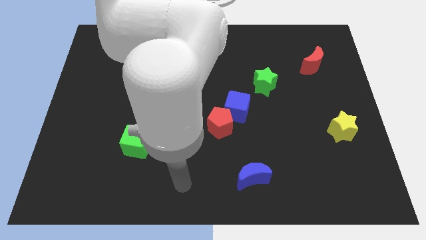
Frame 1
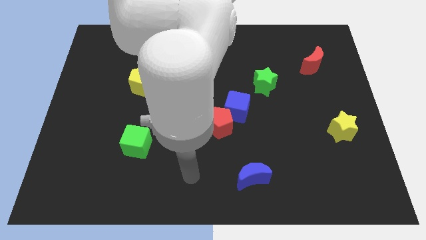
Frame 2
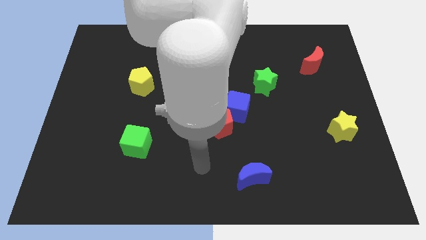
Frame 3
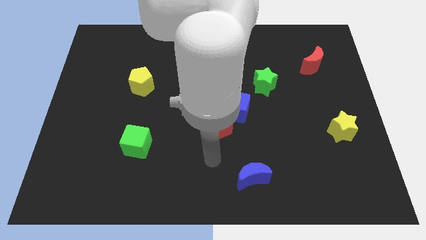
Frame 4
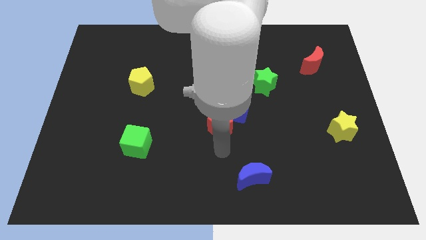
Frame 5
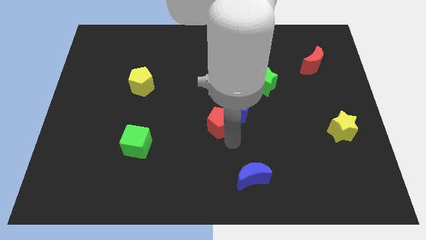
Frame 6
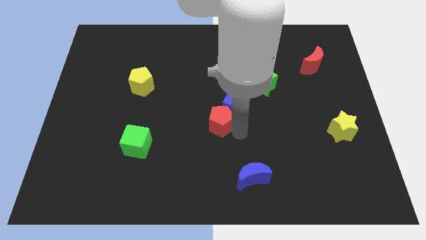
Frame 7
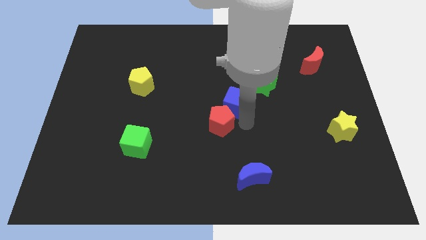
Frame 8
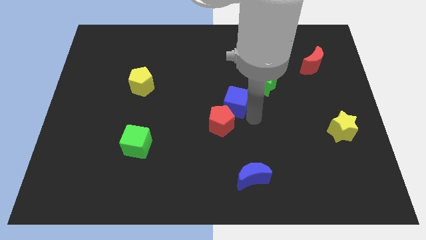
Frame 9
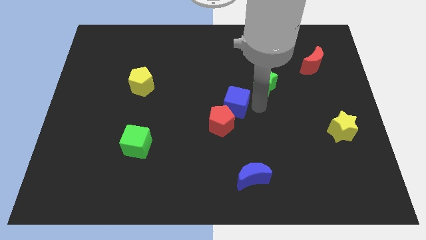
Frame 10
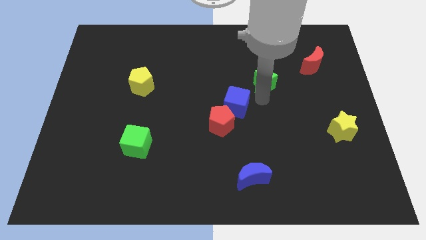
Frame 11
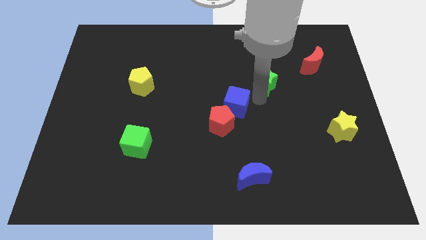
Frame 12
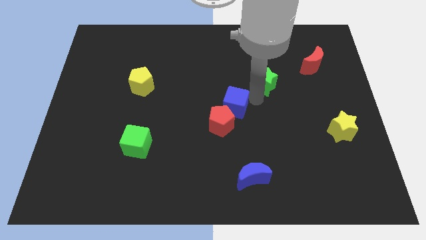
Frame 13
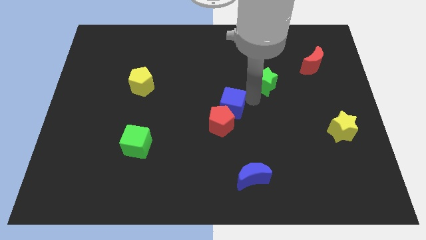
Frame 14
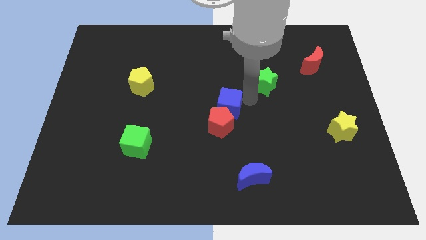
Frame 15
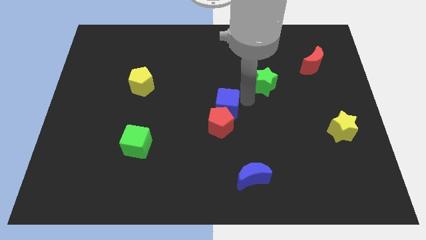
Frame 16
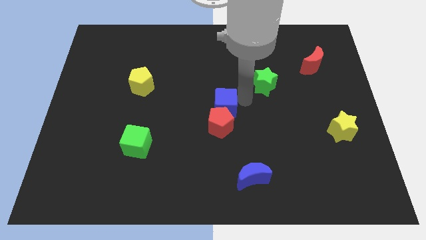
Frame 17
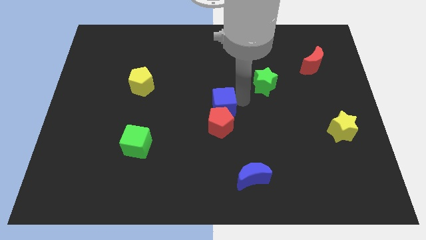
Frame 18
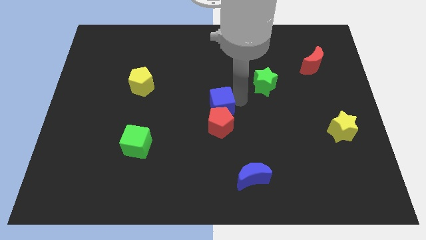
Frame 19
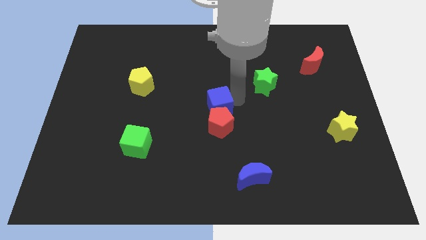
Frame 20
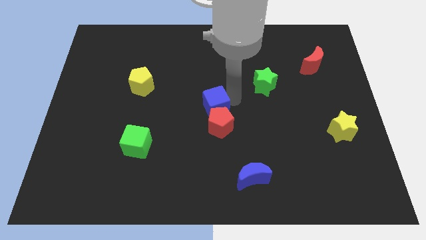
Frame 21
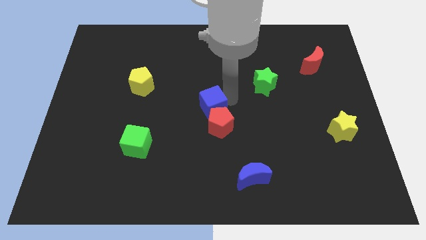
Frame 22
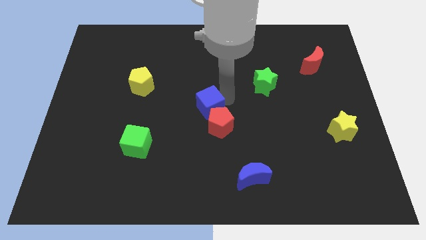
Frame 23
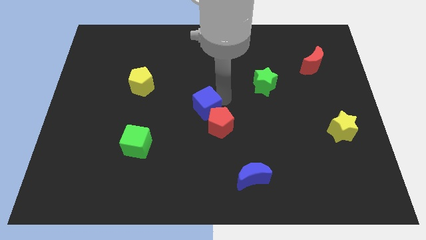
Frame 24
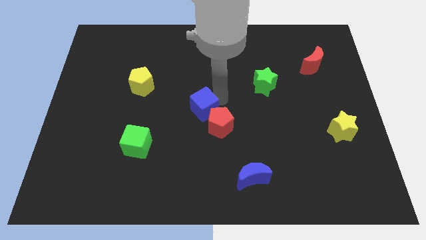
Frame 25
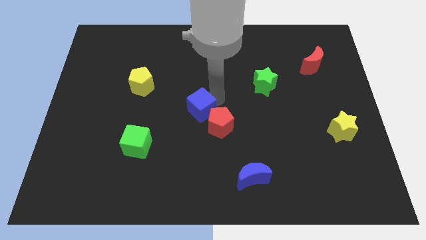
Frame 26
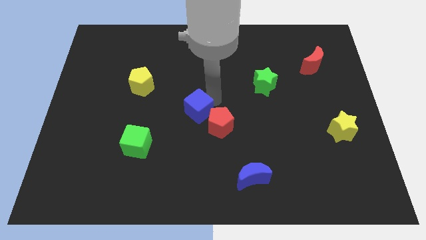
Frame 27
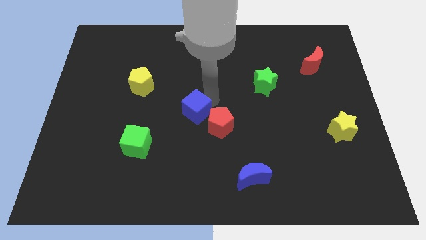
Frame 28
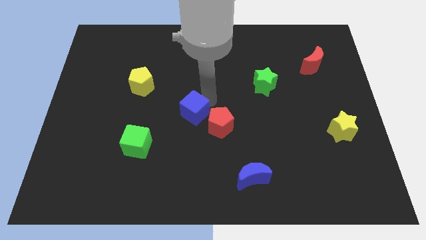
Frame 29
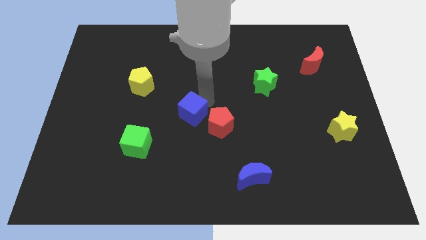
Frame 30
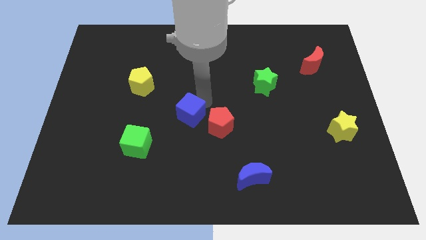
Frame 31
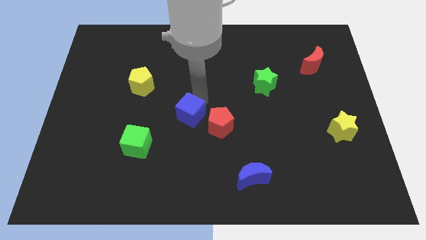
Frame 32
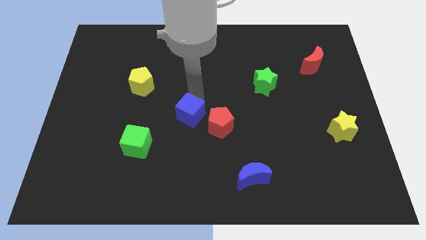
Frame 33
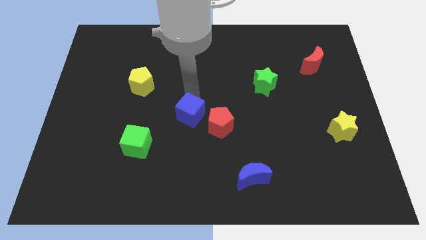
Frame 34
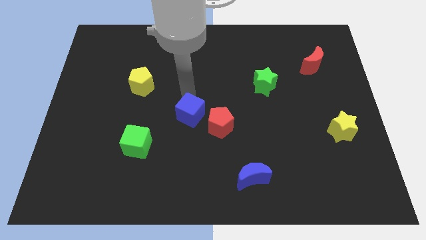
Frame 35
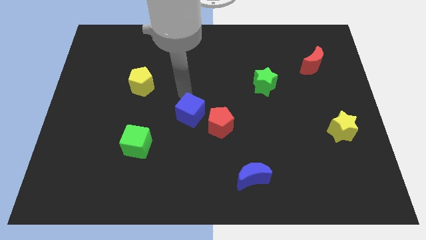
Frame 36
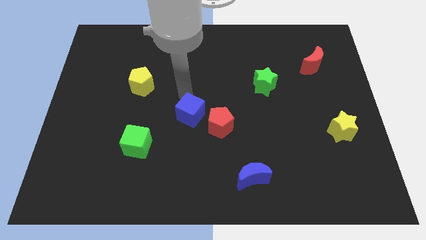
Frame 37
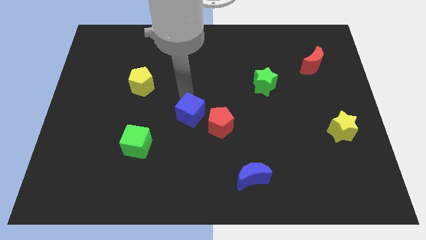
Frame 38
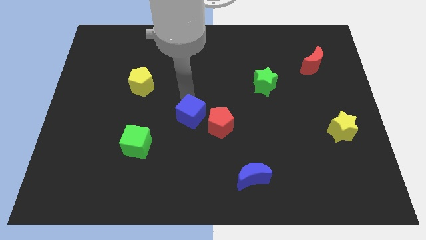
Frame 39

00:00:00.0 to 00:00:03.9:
slightly move the blue cube diagonally downwards and to the left

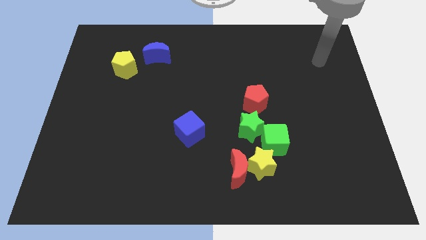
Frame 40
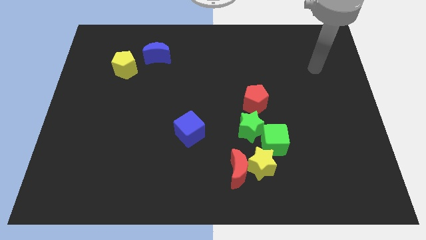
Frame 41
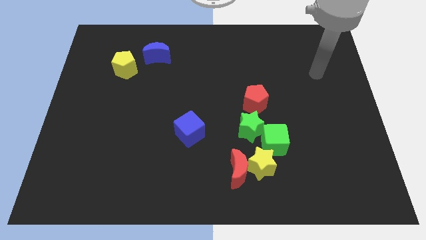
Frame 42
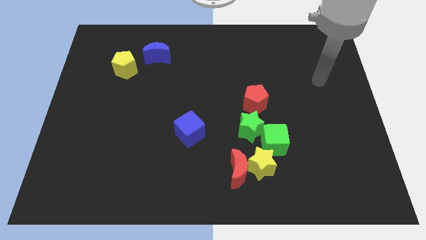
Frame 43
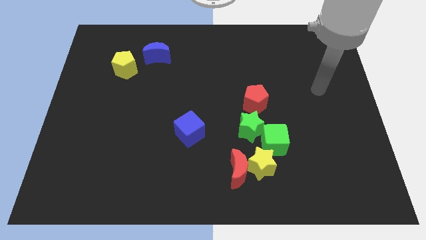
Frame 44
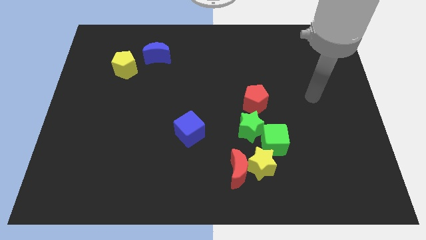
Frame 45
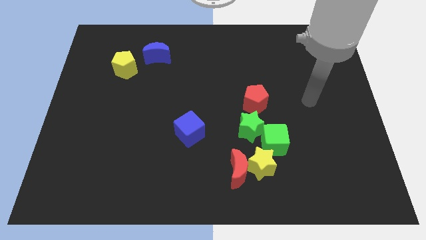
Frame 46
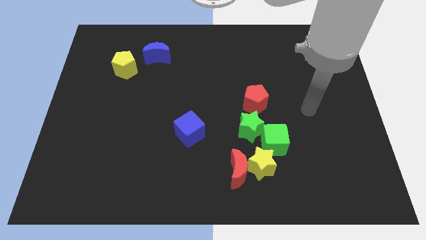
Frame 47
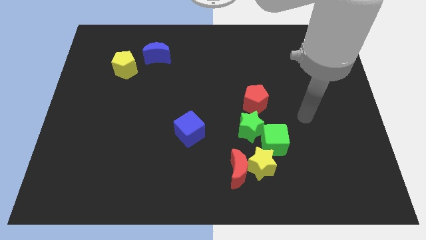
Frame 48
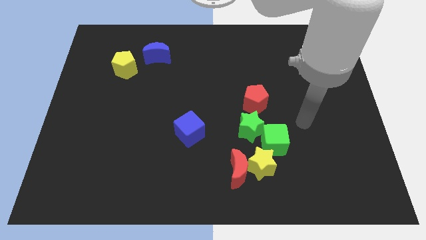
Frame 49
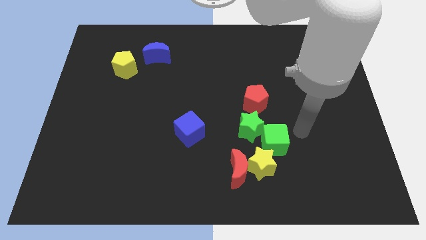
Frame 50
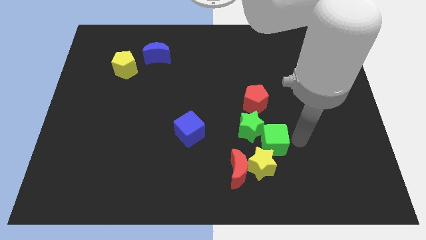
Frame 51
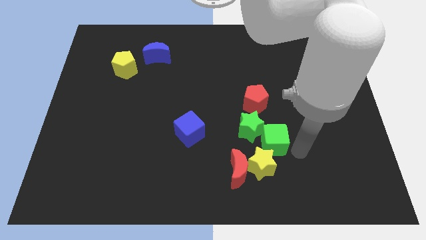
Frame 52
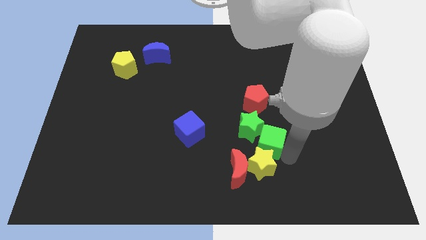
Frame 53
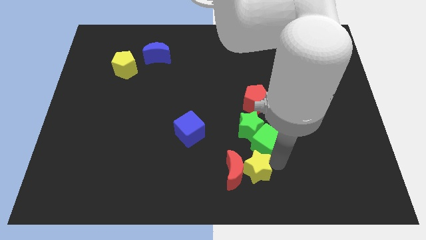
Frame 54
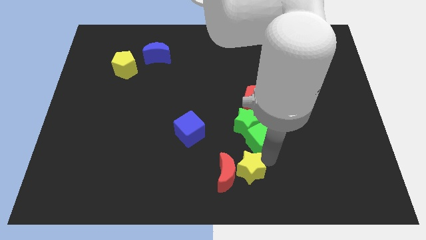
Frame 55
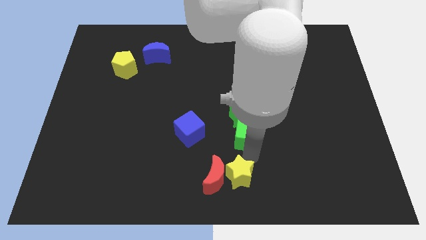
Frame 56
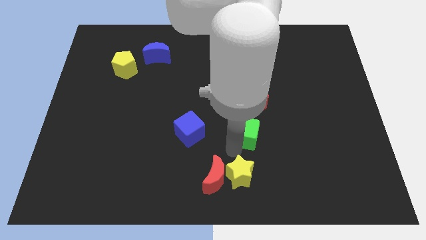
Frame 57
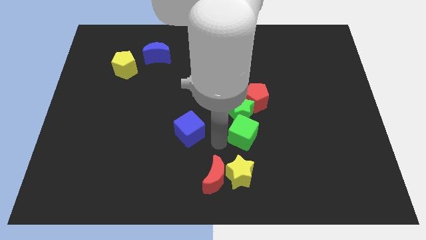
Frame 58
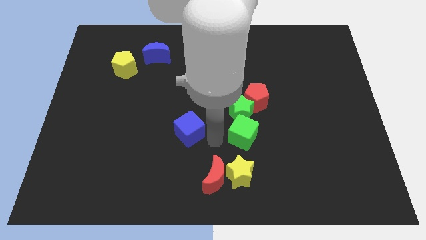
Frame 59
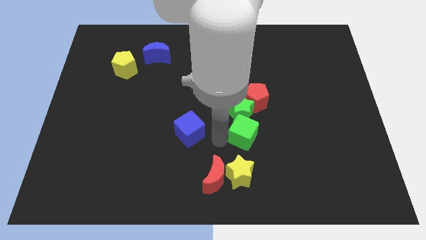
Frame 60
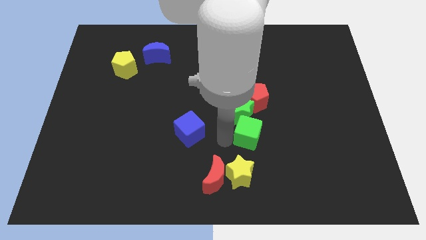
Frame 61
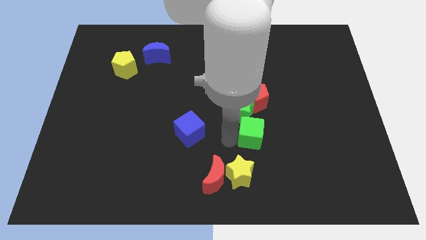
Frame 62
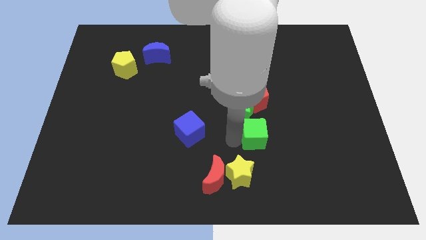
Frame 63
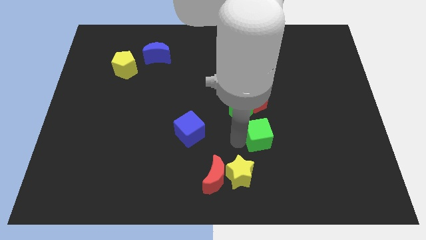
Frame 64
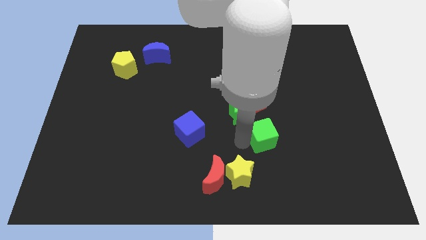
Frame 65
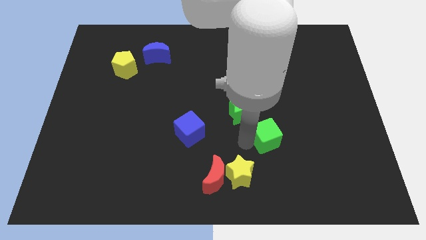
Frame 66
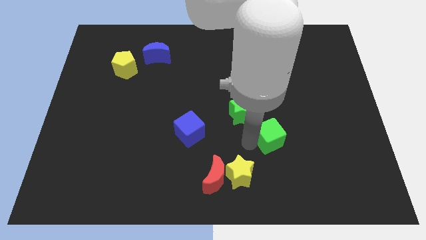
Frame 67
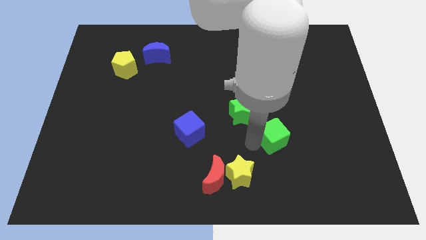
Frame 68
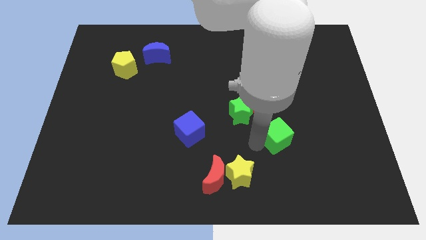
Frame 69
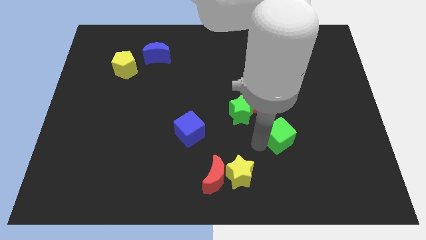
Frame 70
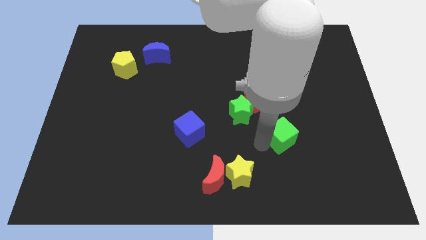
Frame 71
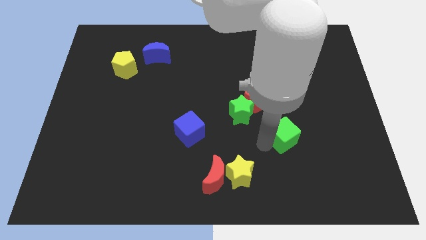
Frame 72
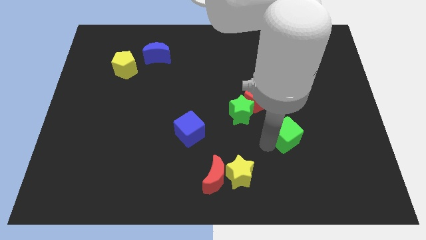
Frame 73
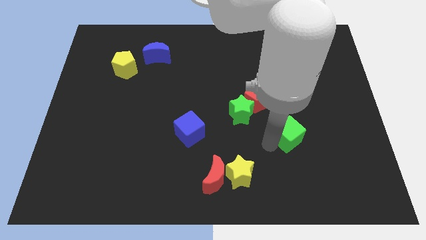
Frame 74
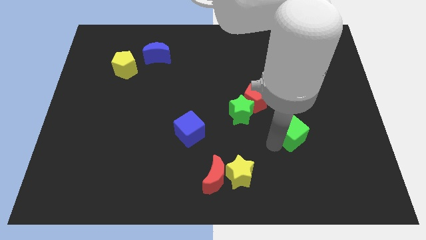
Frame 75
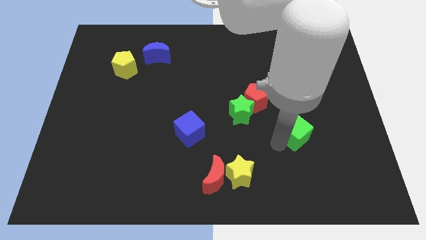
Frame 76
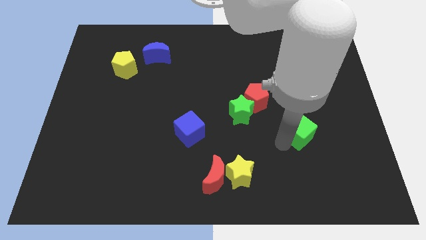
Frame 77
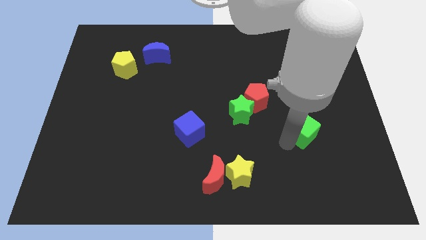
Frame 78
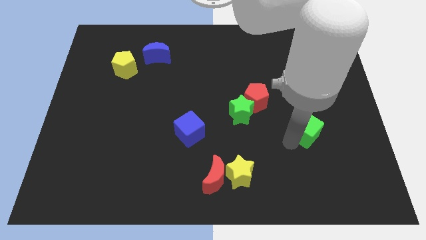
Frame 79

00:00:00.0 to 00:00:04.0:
slightly slide the green cube upwards and then right

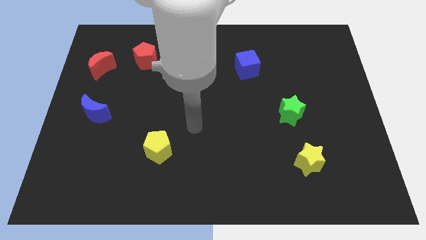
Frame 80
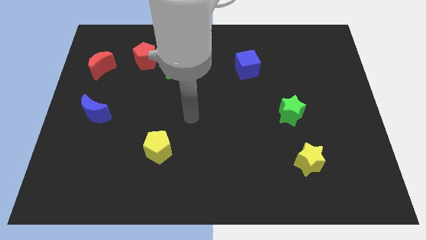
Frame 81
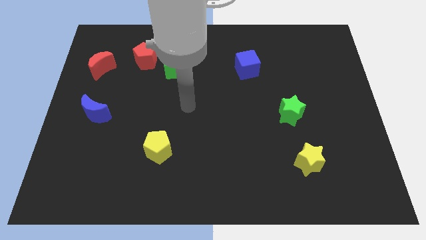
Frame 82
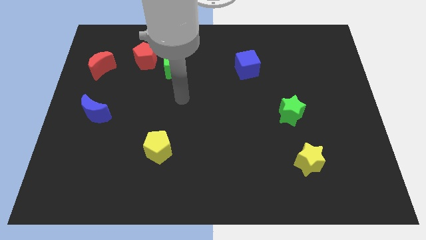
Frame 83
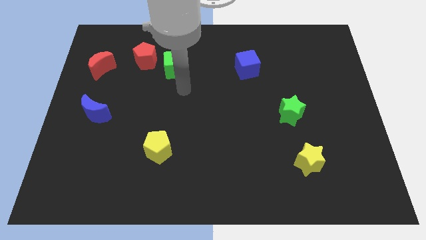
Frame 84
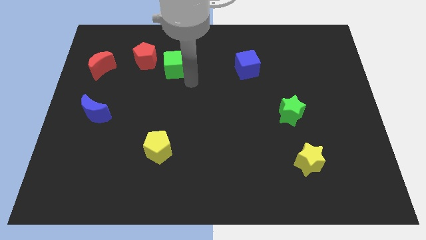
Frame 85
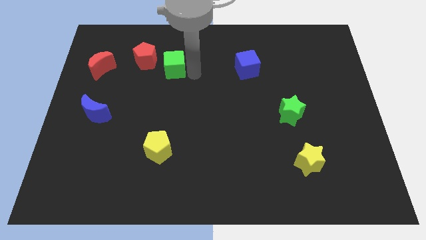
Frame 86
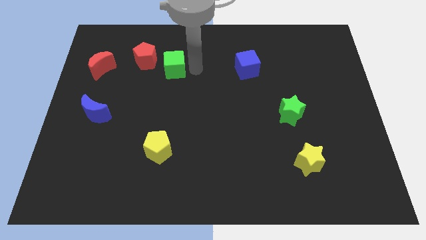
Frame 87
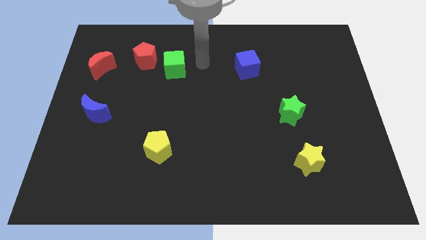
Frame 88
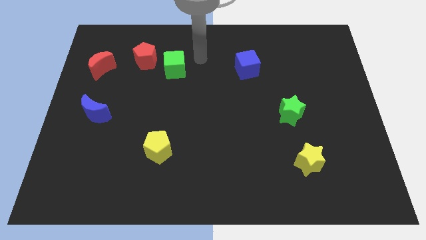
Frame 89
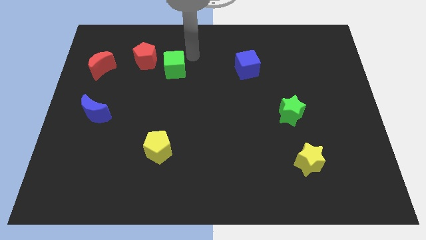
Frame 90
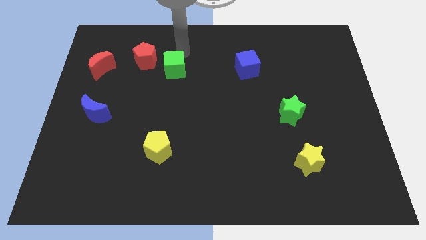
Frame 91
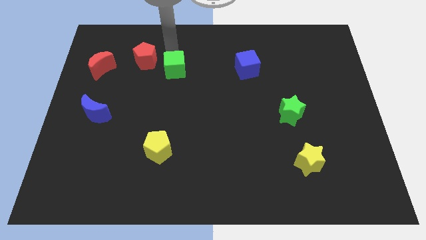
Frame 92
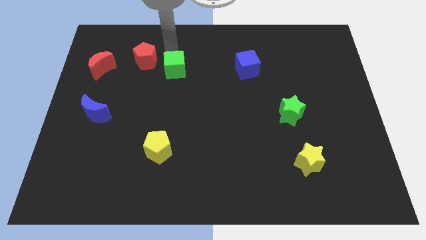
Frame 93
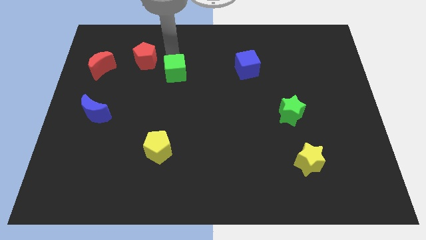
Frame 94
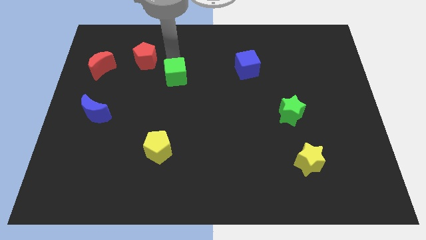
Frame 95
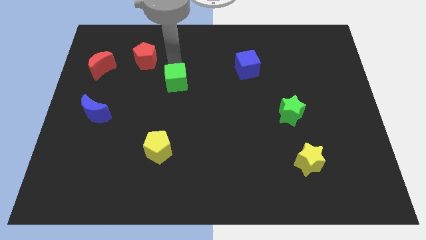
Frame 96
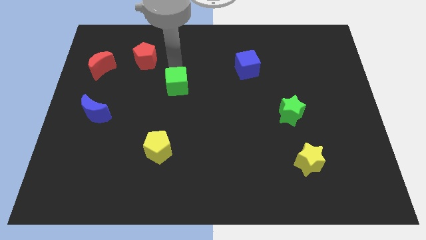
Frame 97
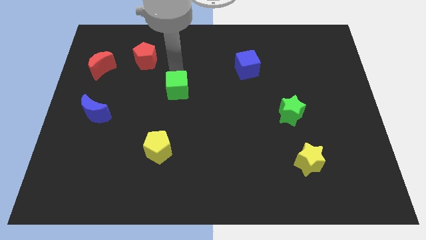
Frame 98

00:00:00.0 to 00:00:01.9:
slide the green cube down a bit
